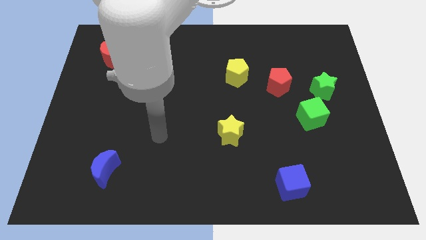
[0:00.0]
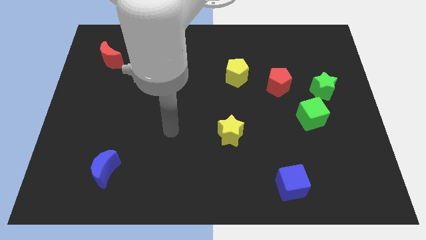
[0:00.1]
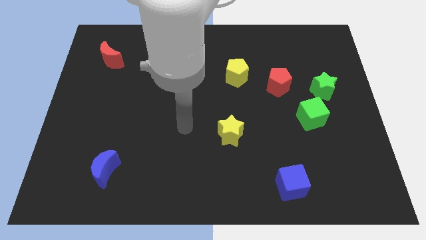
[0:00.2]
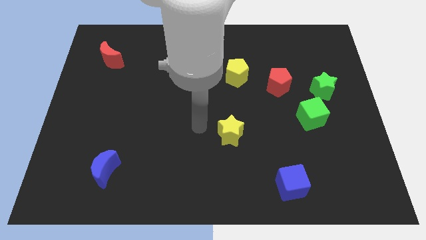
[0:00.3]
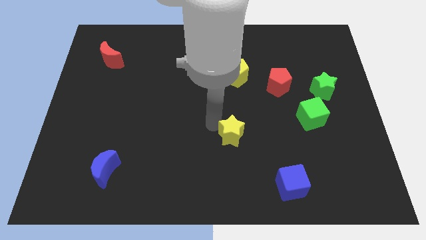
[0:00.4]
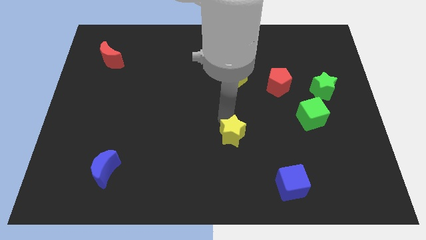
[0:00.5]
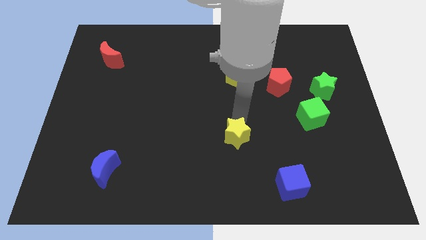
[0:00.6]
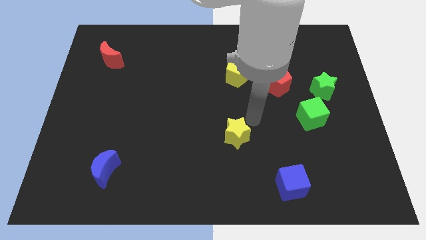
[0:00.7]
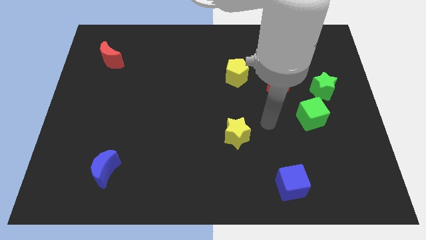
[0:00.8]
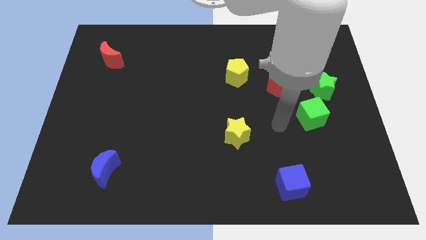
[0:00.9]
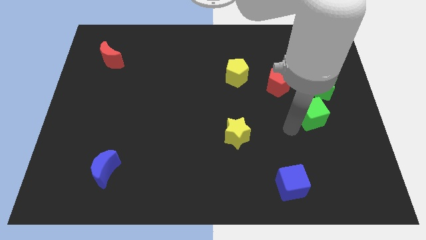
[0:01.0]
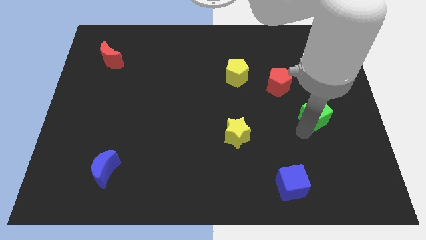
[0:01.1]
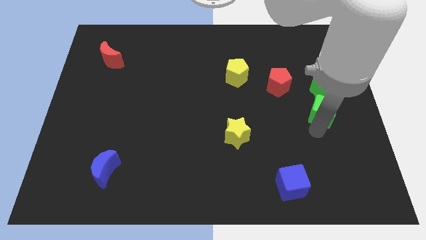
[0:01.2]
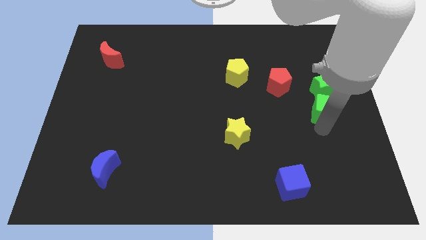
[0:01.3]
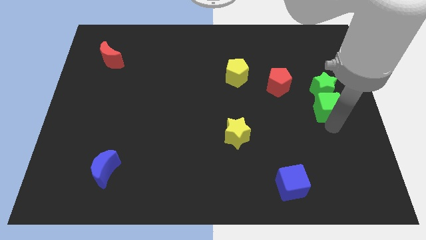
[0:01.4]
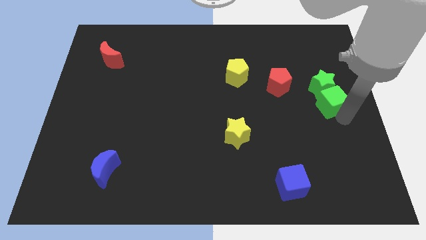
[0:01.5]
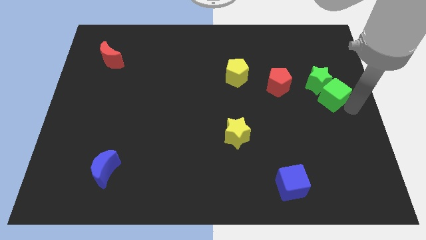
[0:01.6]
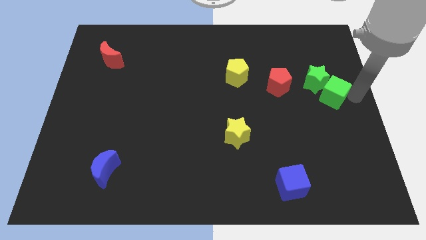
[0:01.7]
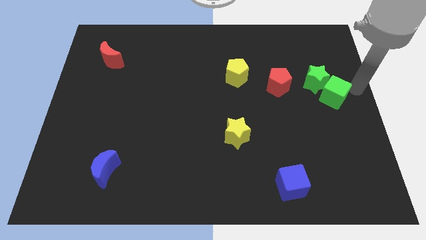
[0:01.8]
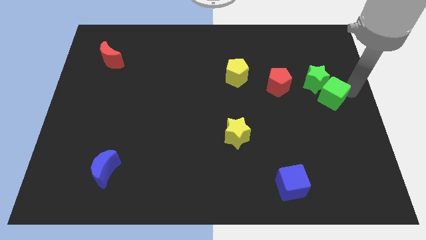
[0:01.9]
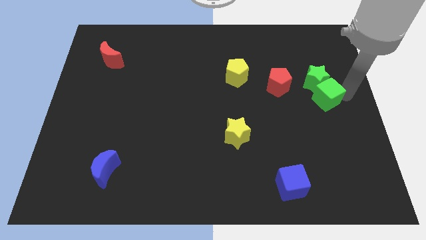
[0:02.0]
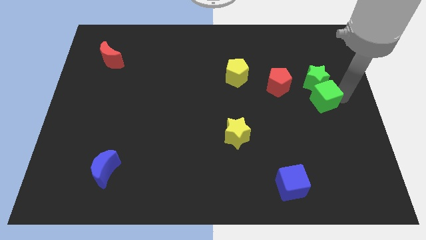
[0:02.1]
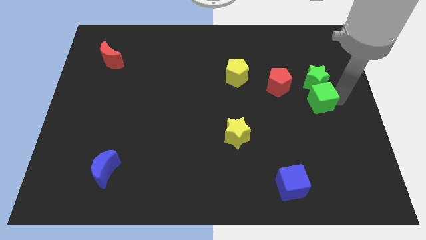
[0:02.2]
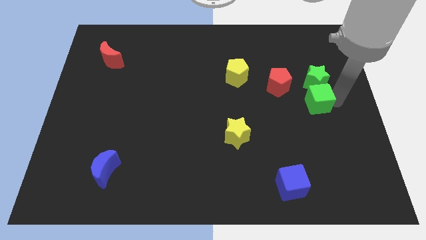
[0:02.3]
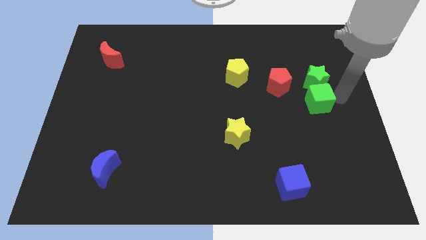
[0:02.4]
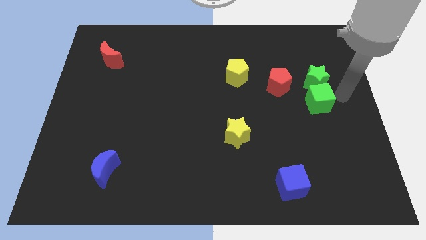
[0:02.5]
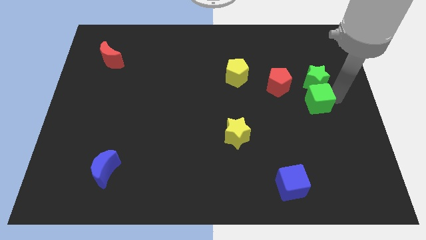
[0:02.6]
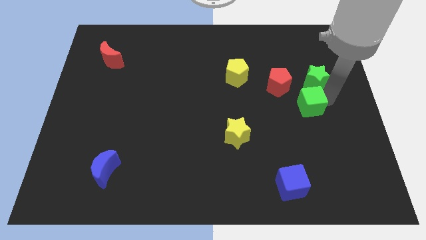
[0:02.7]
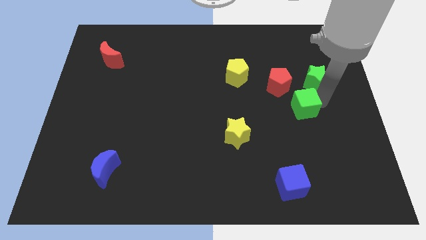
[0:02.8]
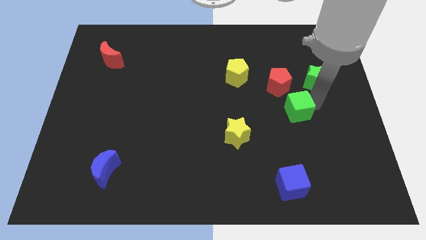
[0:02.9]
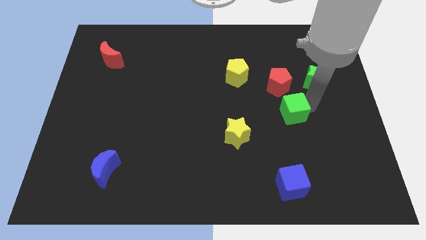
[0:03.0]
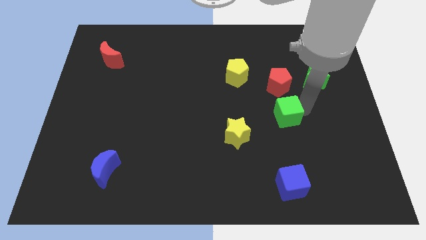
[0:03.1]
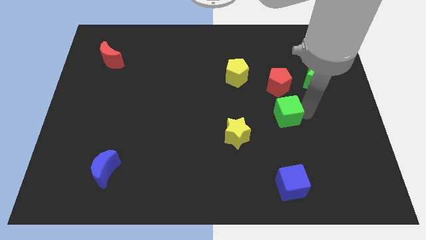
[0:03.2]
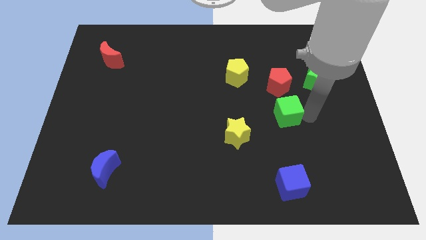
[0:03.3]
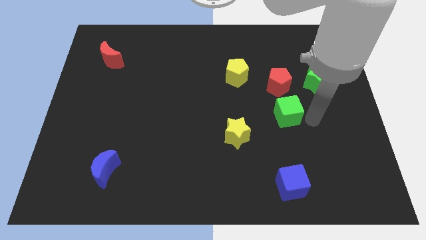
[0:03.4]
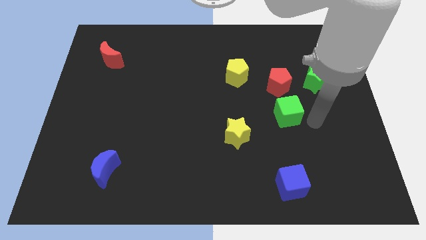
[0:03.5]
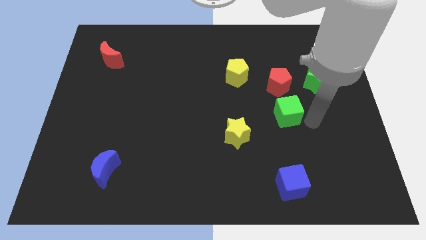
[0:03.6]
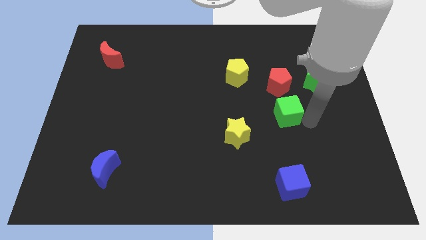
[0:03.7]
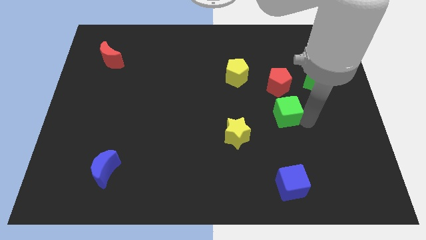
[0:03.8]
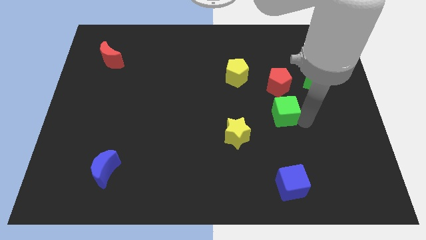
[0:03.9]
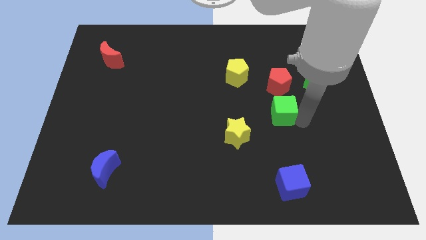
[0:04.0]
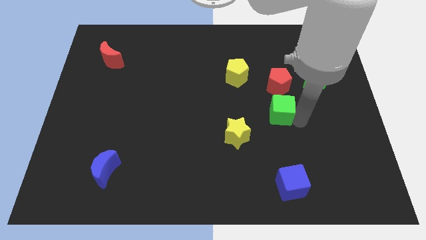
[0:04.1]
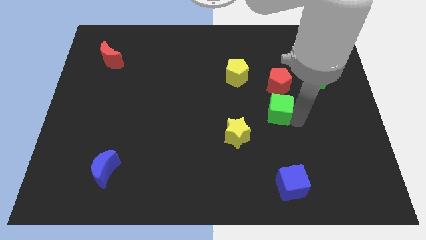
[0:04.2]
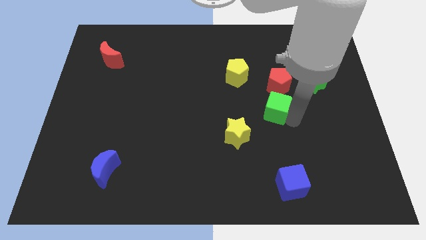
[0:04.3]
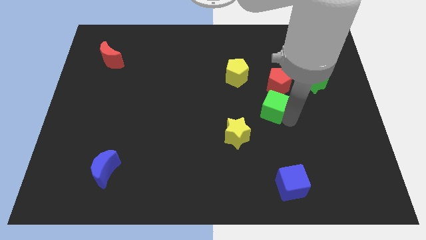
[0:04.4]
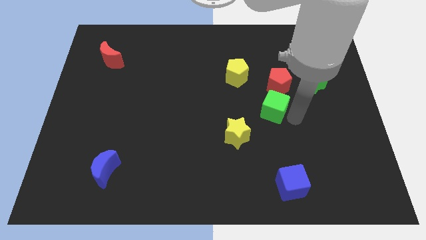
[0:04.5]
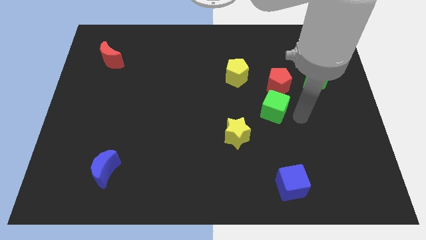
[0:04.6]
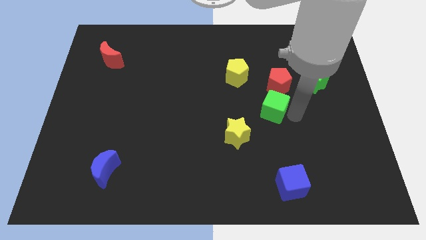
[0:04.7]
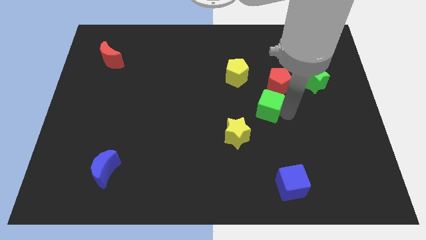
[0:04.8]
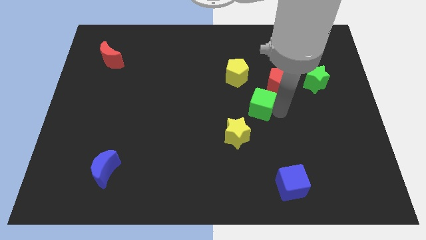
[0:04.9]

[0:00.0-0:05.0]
move the green cube to the middle

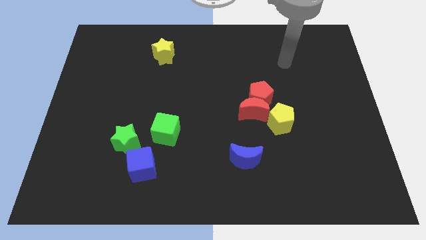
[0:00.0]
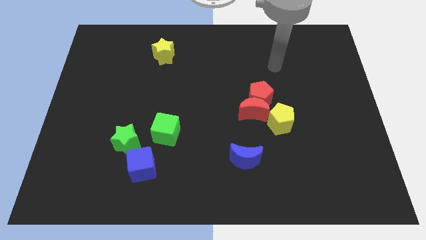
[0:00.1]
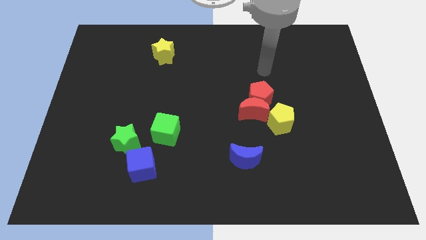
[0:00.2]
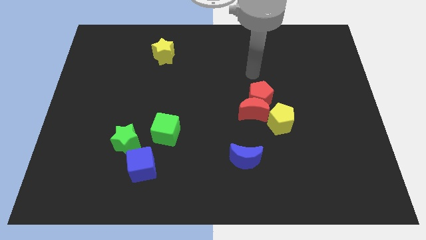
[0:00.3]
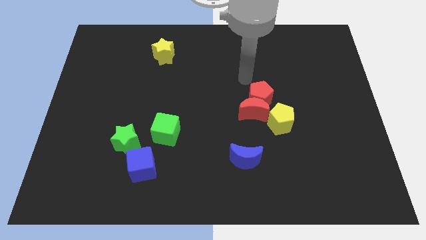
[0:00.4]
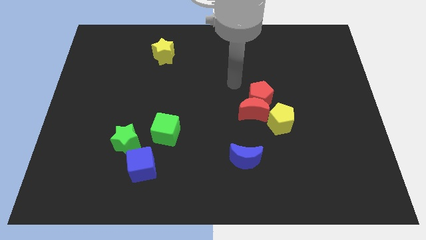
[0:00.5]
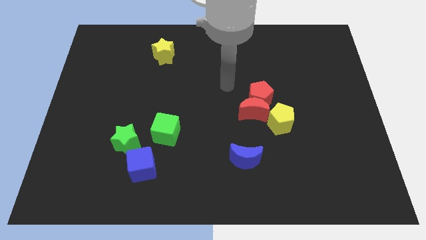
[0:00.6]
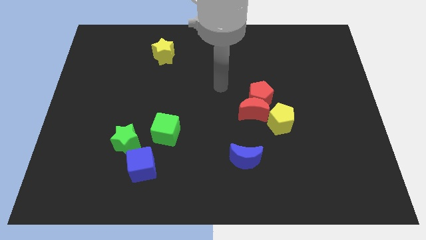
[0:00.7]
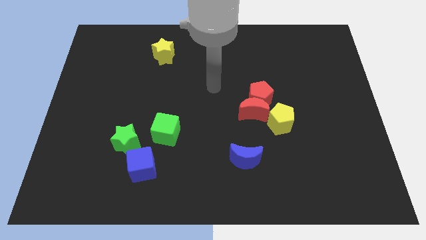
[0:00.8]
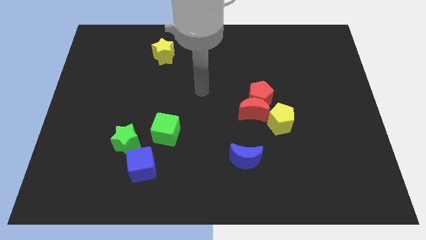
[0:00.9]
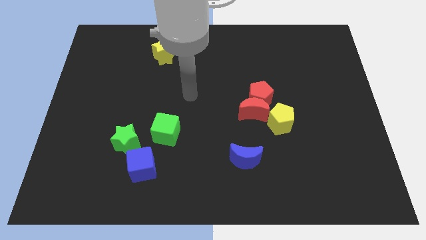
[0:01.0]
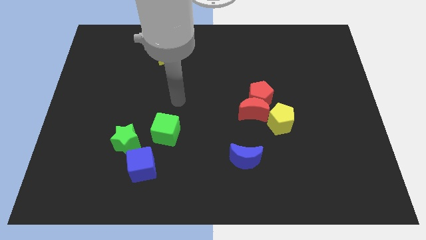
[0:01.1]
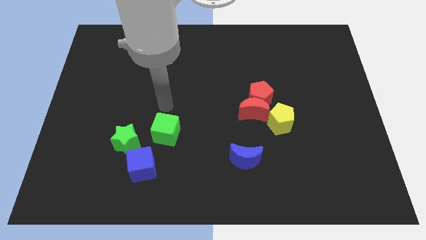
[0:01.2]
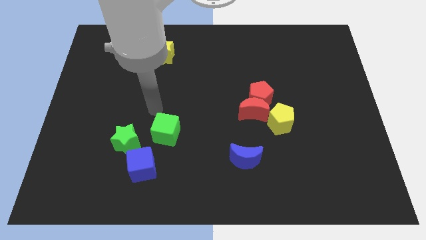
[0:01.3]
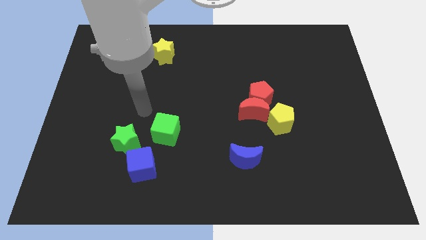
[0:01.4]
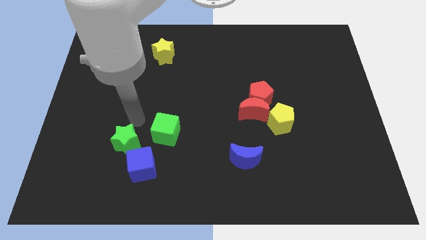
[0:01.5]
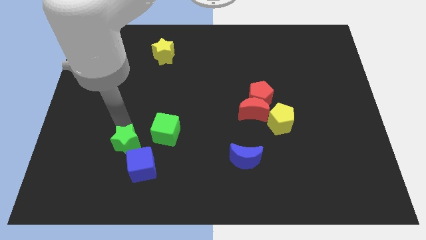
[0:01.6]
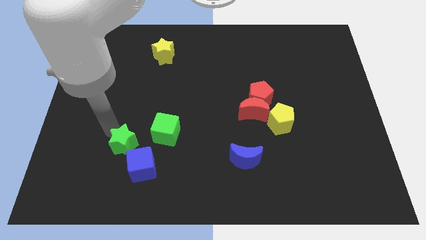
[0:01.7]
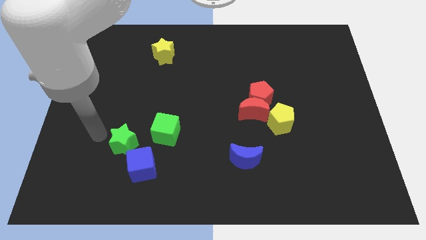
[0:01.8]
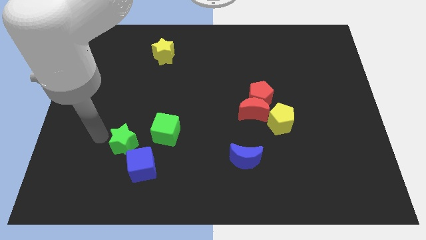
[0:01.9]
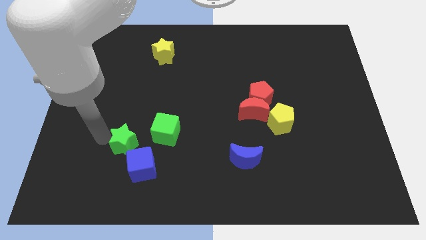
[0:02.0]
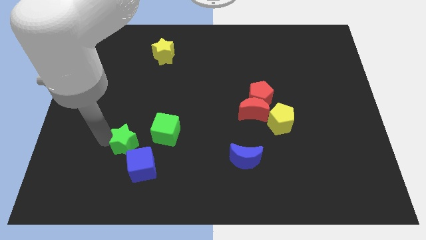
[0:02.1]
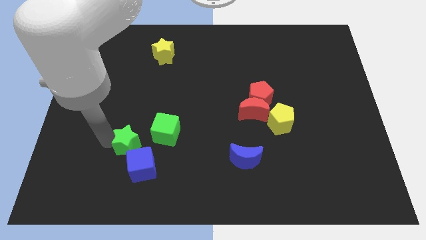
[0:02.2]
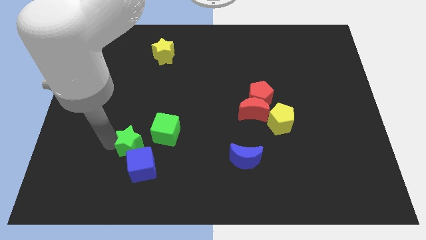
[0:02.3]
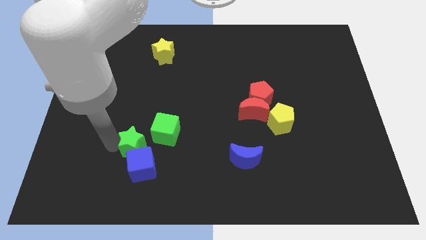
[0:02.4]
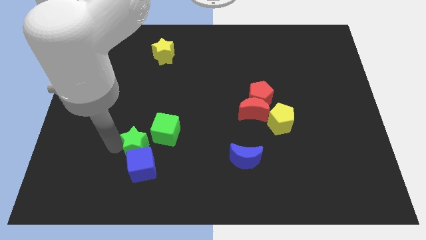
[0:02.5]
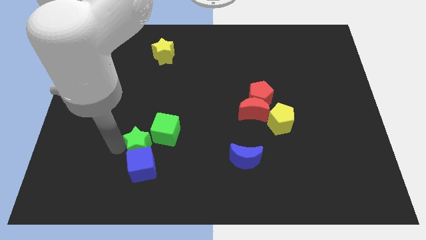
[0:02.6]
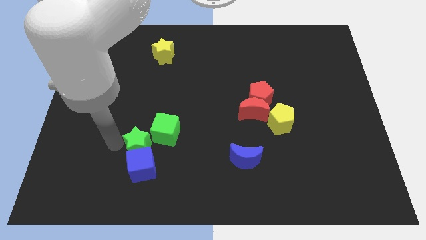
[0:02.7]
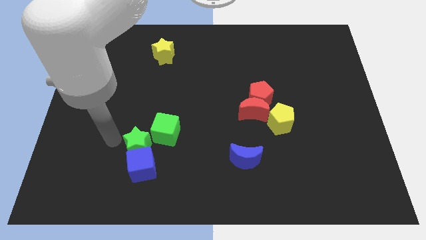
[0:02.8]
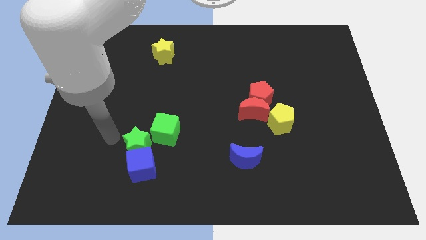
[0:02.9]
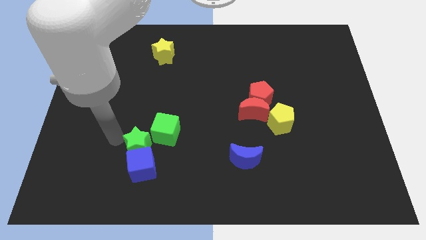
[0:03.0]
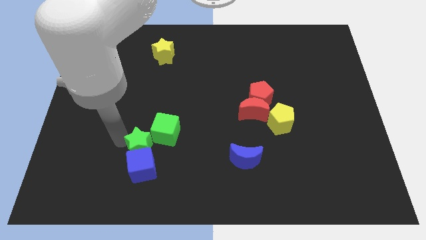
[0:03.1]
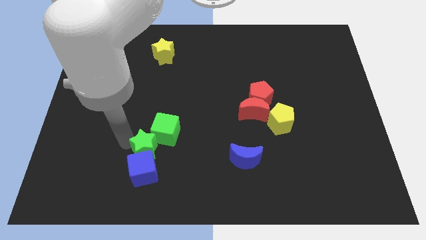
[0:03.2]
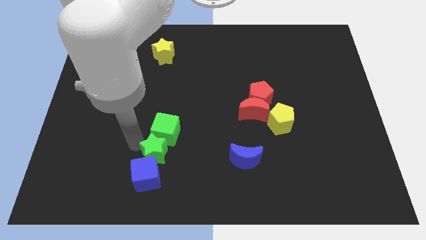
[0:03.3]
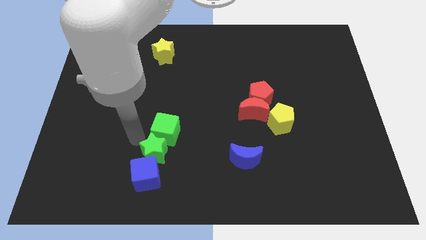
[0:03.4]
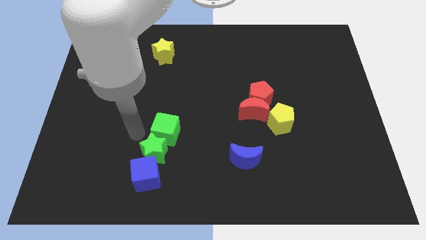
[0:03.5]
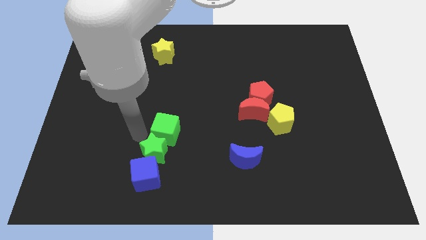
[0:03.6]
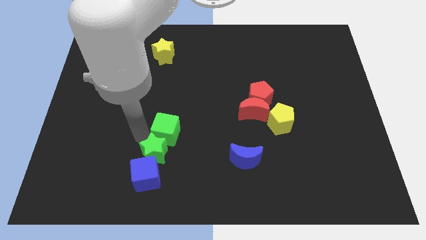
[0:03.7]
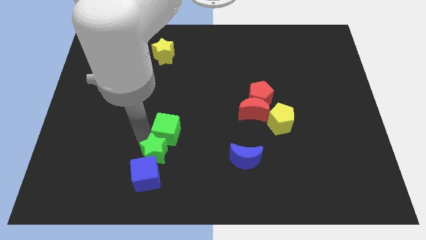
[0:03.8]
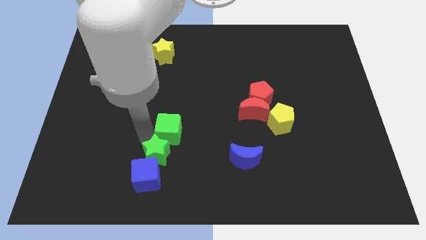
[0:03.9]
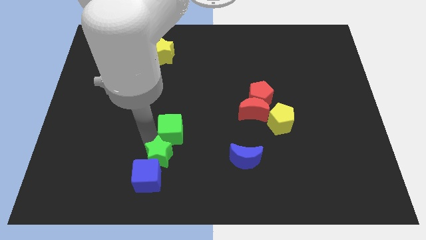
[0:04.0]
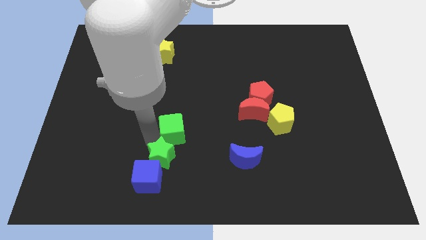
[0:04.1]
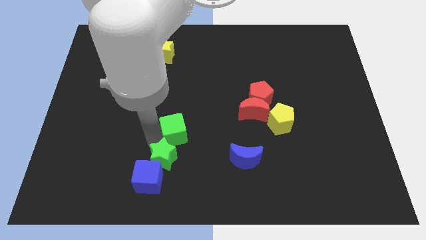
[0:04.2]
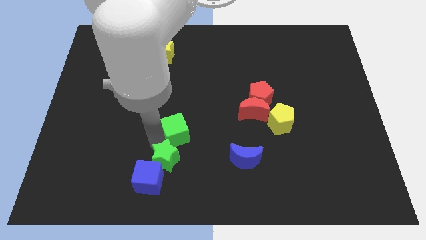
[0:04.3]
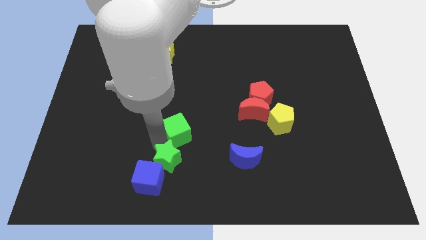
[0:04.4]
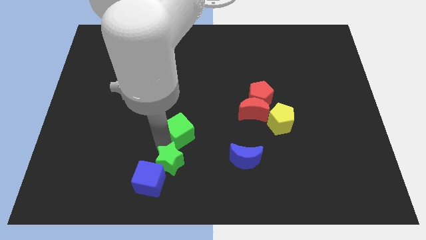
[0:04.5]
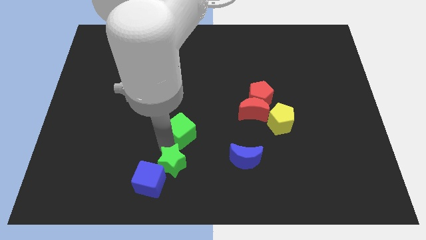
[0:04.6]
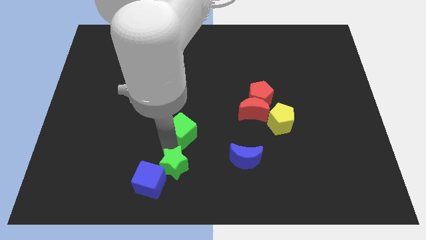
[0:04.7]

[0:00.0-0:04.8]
push the green star to the bottom
